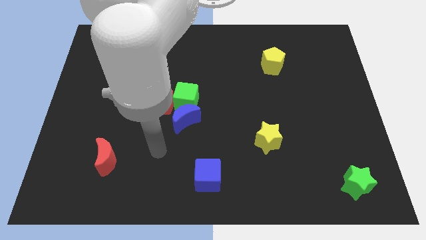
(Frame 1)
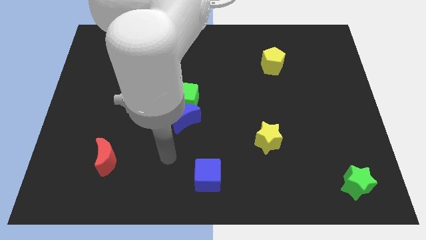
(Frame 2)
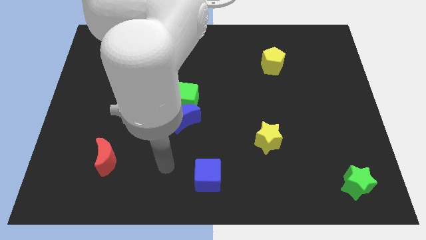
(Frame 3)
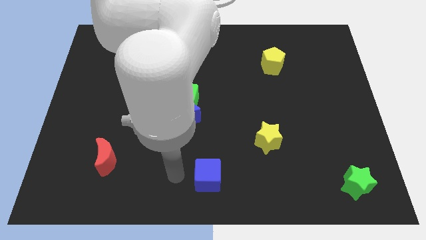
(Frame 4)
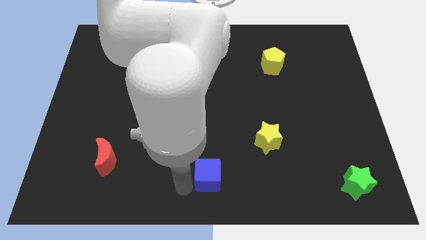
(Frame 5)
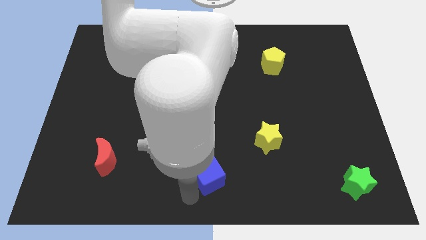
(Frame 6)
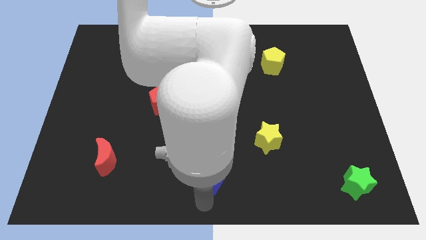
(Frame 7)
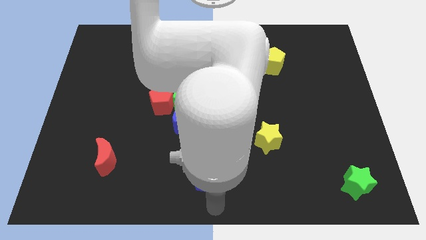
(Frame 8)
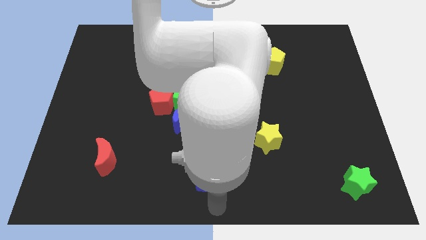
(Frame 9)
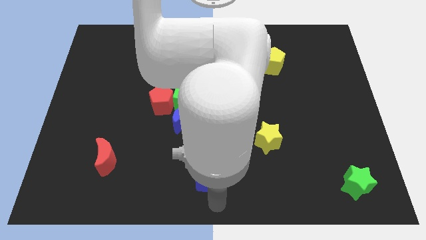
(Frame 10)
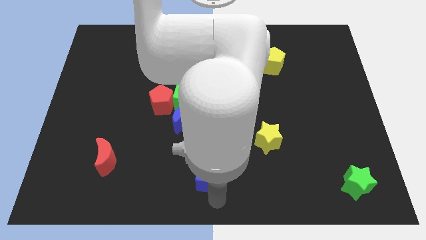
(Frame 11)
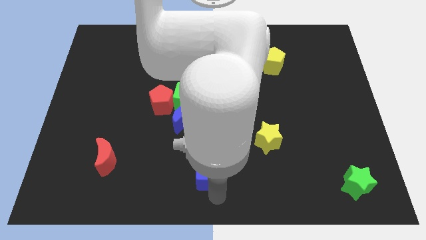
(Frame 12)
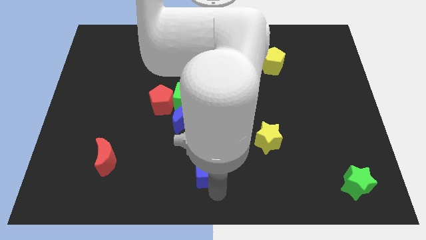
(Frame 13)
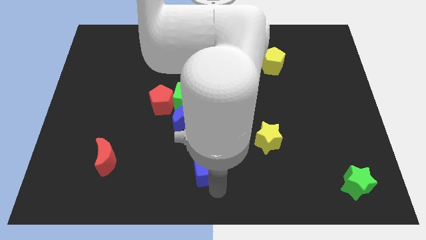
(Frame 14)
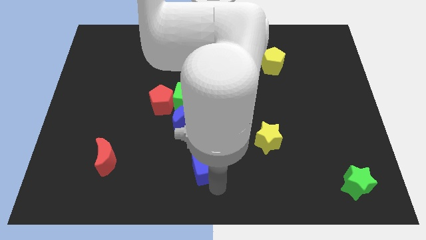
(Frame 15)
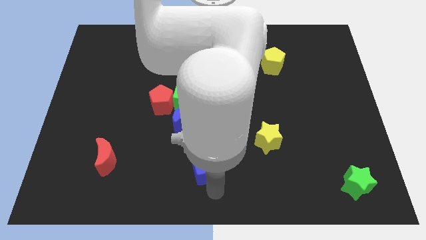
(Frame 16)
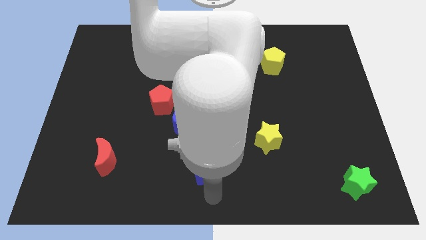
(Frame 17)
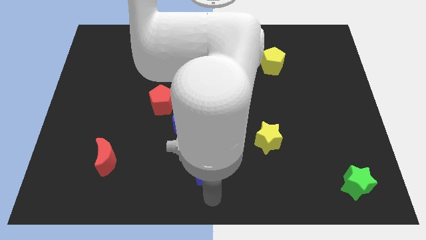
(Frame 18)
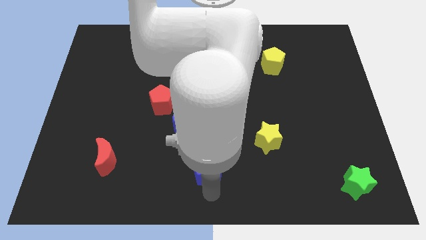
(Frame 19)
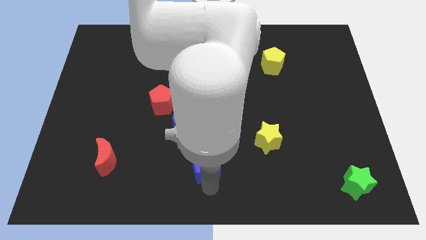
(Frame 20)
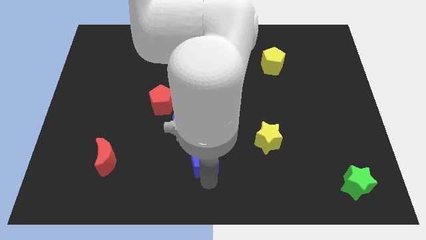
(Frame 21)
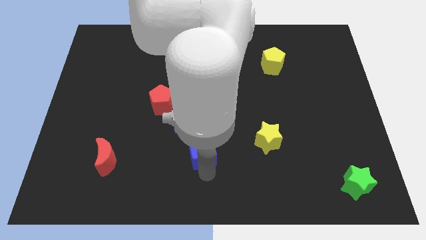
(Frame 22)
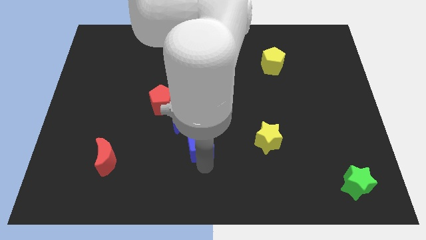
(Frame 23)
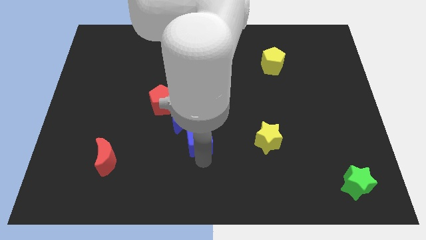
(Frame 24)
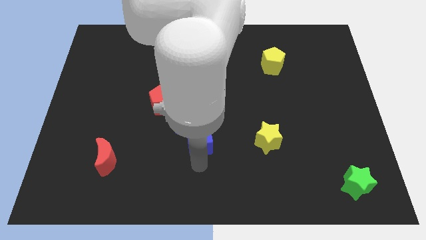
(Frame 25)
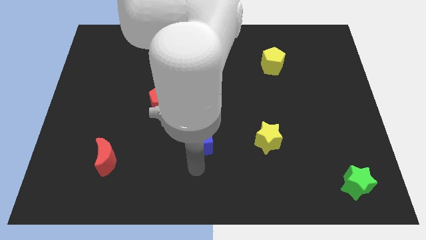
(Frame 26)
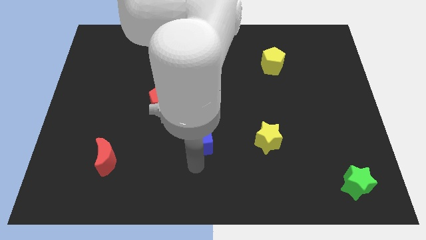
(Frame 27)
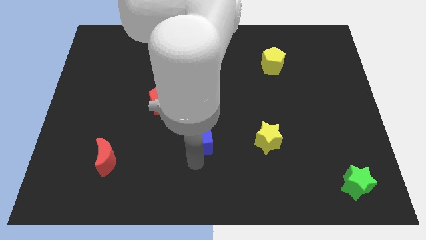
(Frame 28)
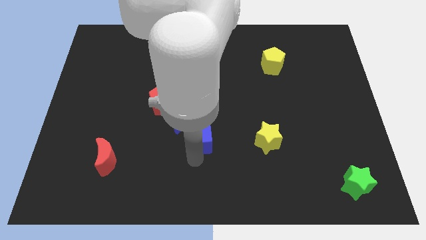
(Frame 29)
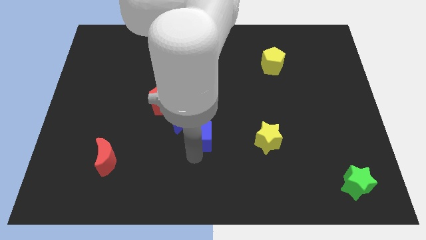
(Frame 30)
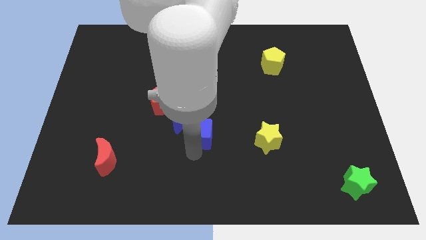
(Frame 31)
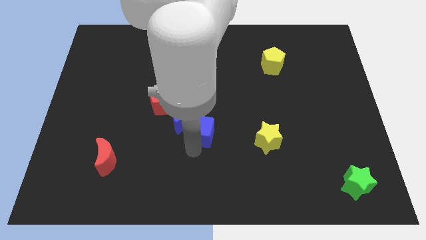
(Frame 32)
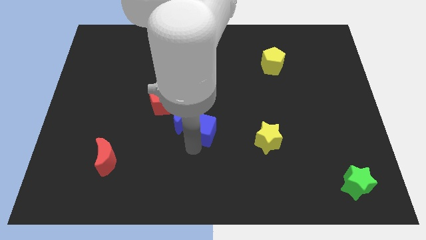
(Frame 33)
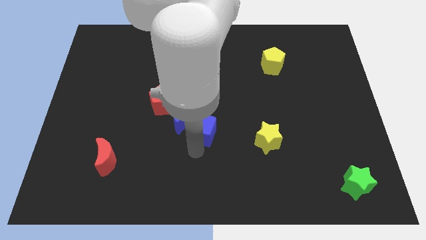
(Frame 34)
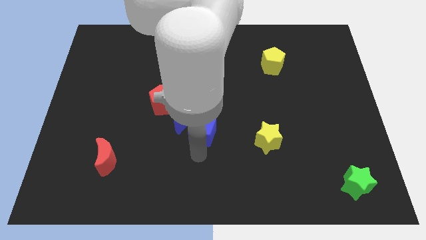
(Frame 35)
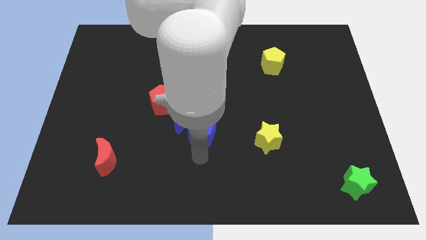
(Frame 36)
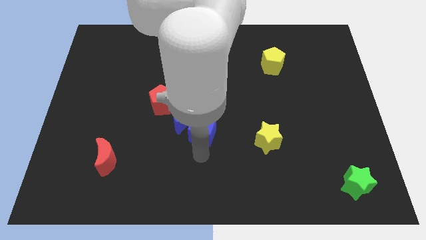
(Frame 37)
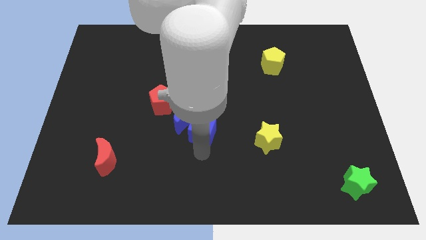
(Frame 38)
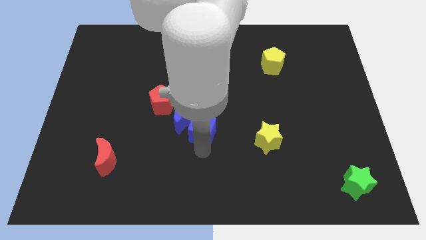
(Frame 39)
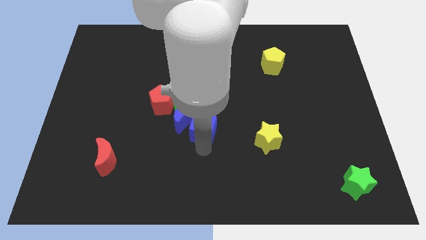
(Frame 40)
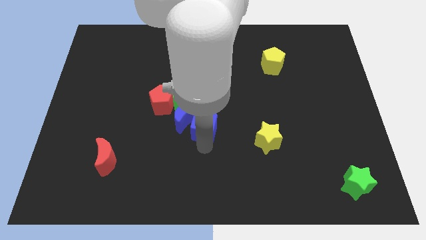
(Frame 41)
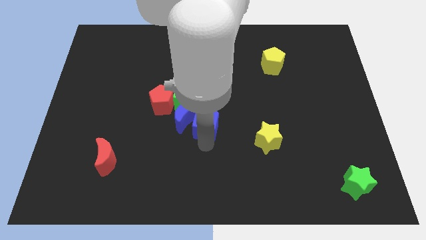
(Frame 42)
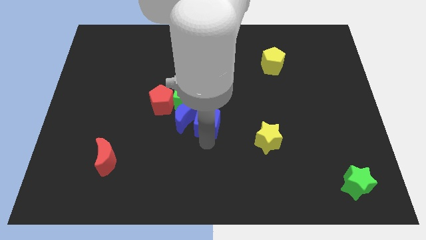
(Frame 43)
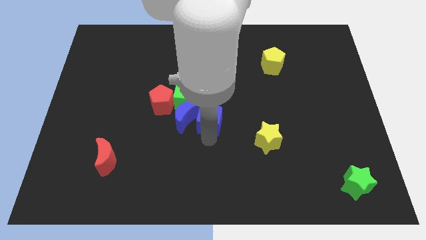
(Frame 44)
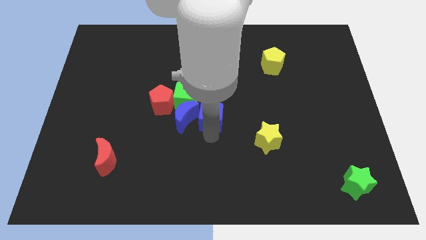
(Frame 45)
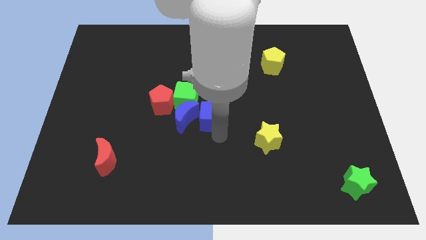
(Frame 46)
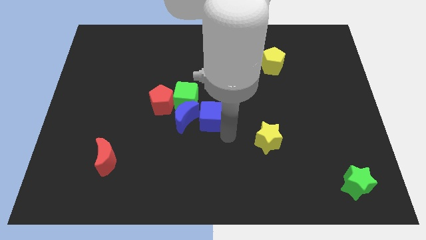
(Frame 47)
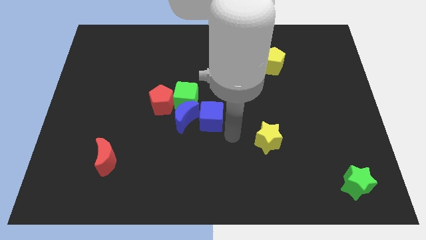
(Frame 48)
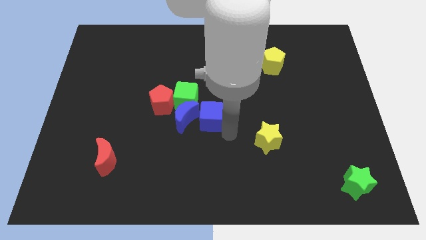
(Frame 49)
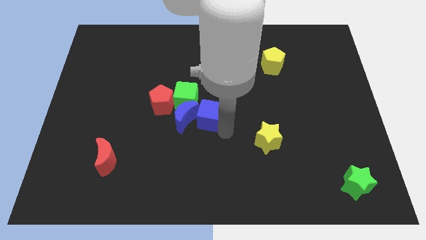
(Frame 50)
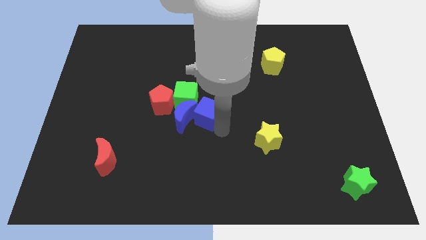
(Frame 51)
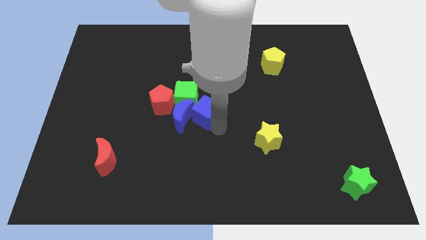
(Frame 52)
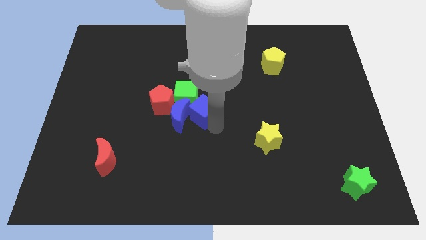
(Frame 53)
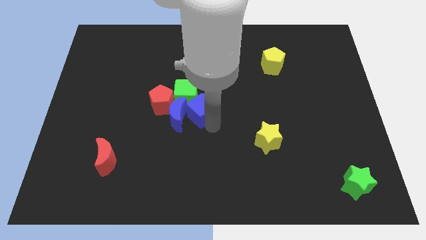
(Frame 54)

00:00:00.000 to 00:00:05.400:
slide the blue cube next to the green cube

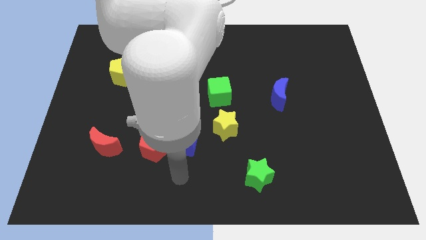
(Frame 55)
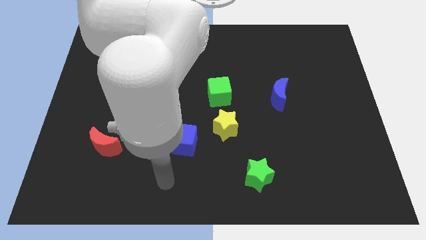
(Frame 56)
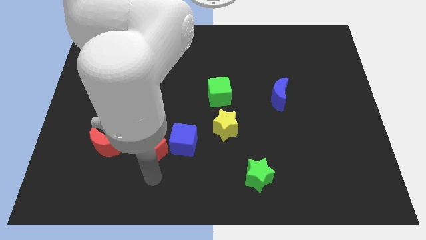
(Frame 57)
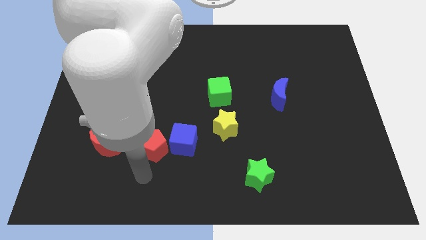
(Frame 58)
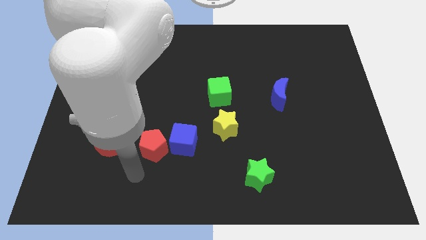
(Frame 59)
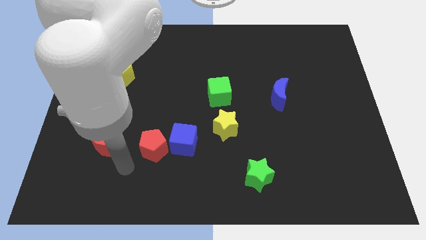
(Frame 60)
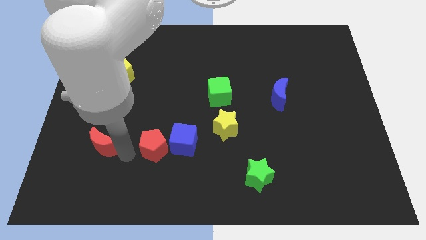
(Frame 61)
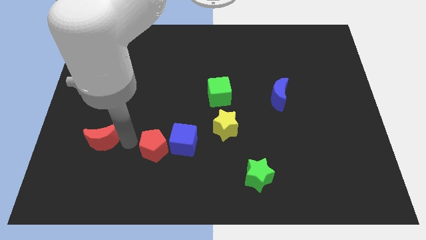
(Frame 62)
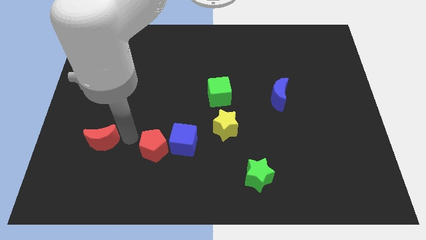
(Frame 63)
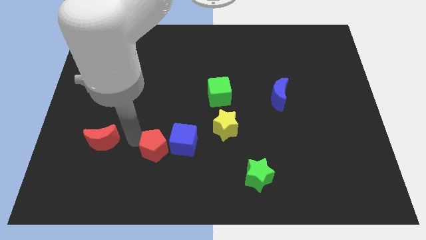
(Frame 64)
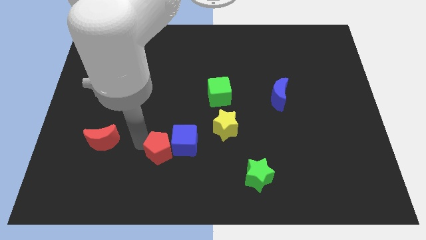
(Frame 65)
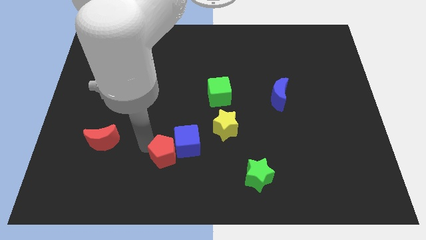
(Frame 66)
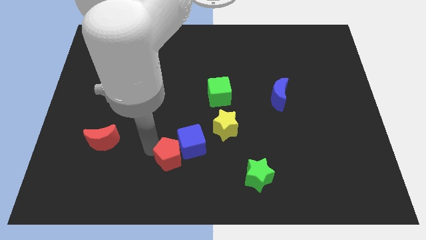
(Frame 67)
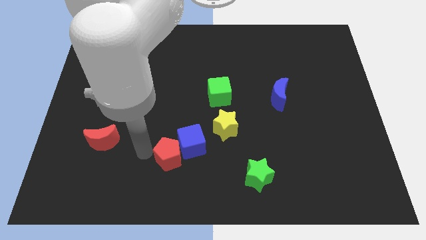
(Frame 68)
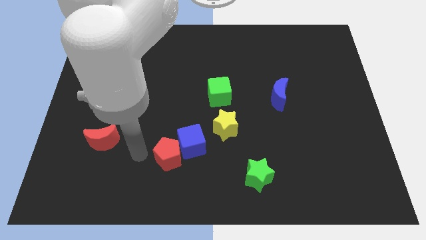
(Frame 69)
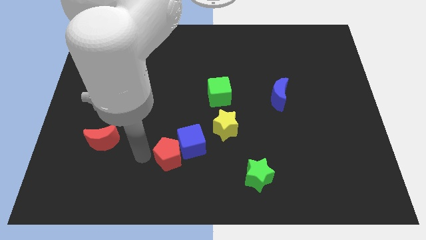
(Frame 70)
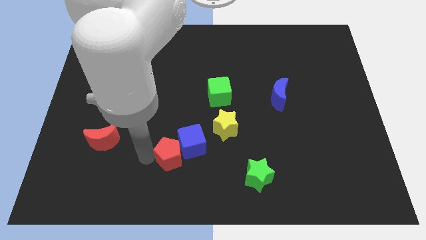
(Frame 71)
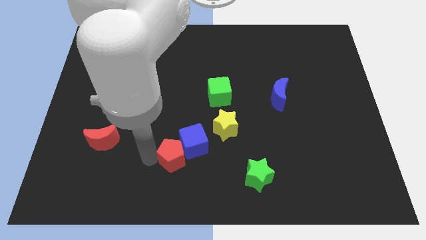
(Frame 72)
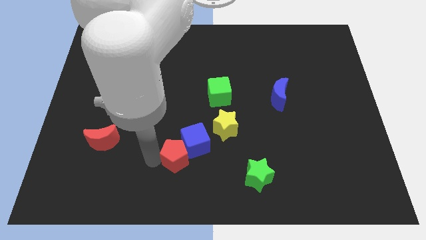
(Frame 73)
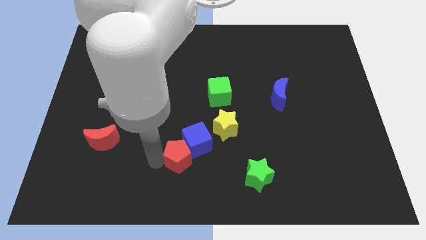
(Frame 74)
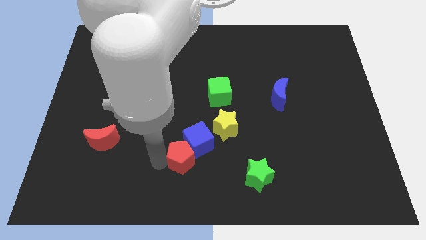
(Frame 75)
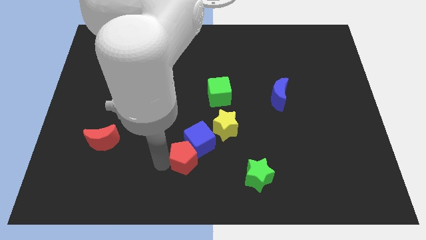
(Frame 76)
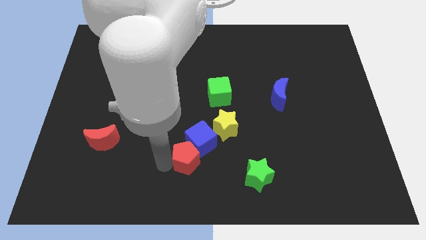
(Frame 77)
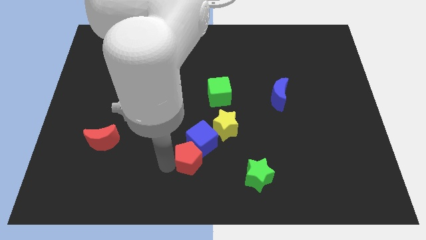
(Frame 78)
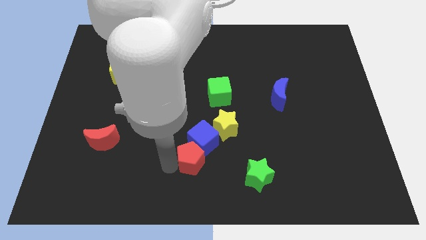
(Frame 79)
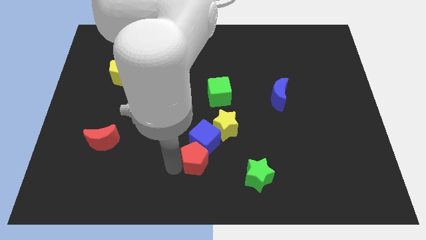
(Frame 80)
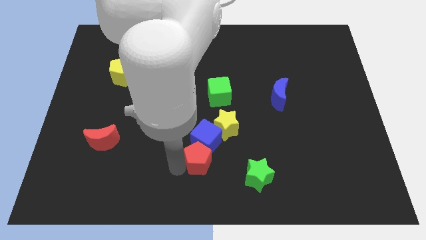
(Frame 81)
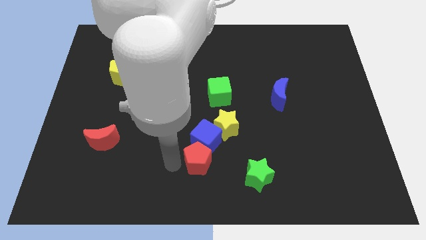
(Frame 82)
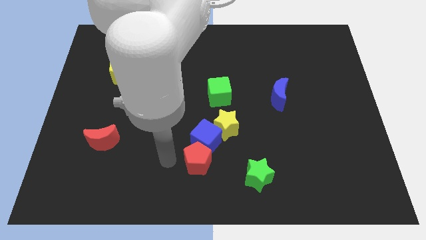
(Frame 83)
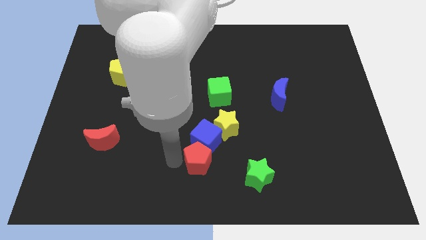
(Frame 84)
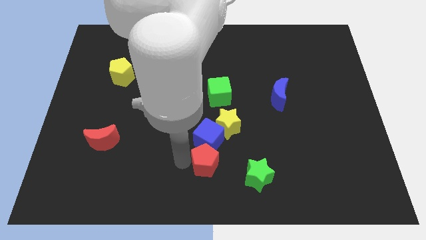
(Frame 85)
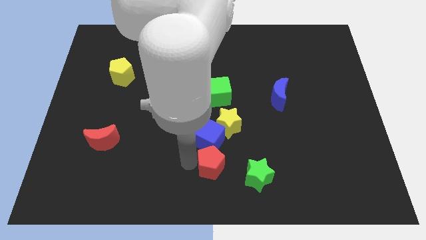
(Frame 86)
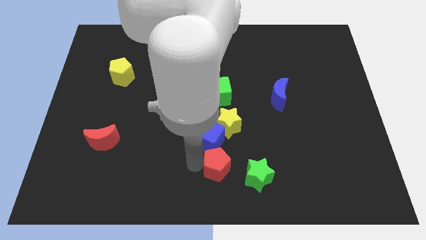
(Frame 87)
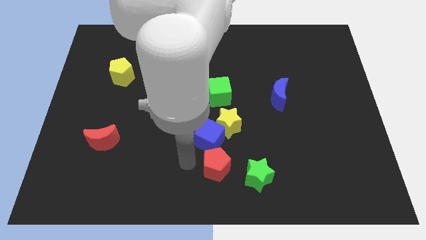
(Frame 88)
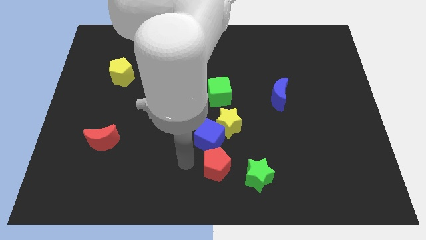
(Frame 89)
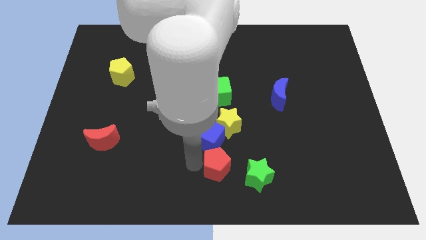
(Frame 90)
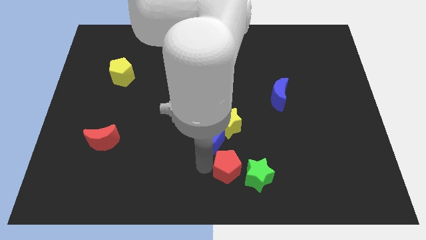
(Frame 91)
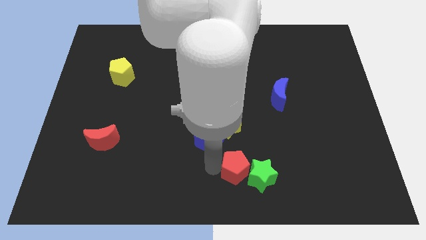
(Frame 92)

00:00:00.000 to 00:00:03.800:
move the red pentagon to the green star
